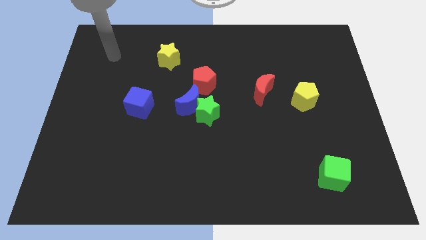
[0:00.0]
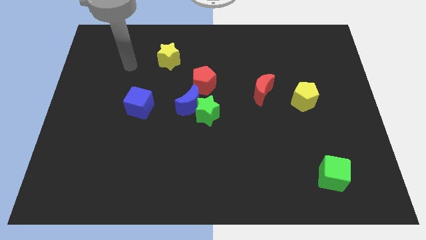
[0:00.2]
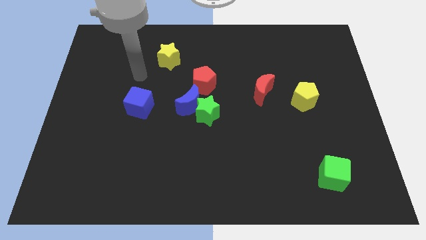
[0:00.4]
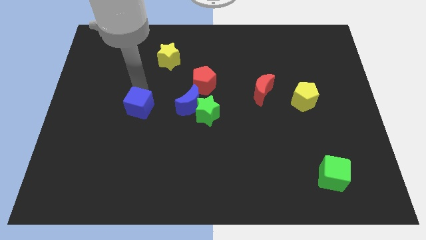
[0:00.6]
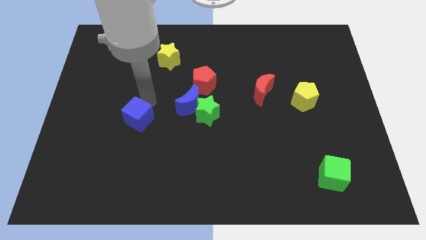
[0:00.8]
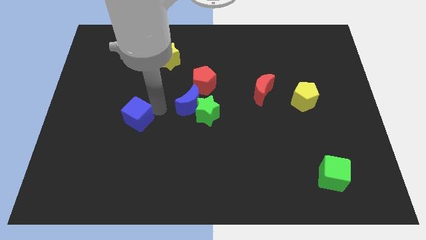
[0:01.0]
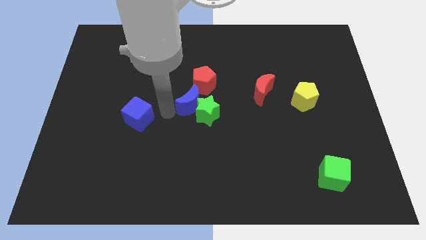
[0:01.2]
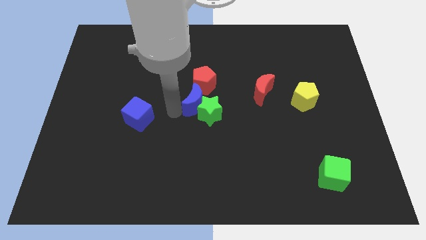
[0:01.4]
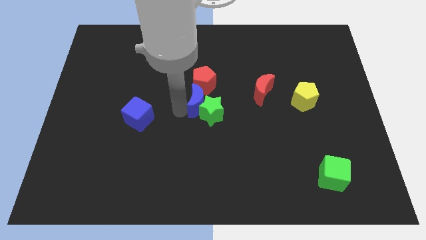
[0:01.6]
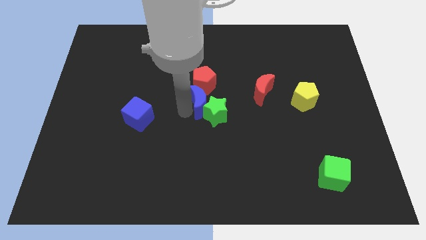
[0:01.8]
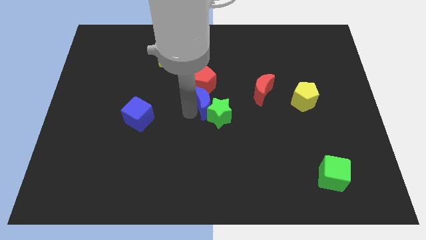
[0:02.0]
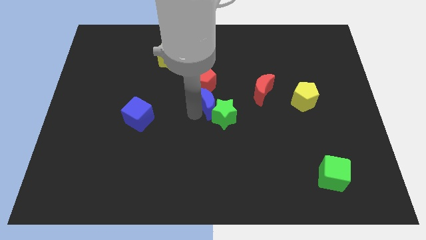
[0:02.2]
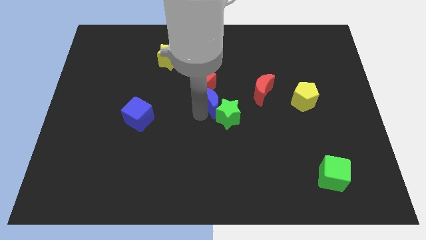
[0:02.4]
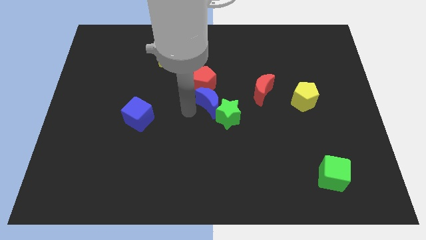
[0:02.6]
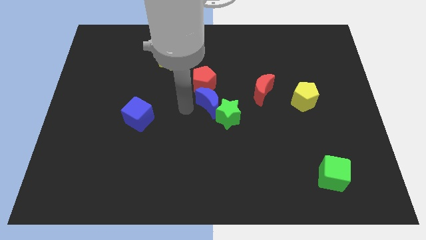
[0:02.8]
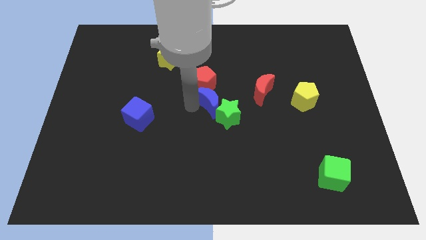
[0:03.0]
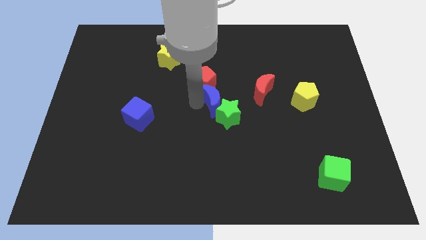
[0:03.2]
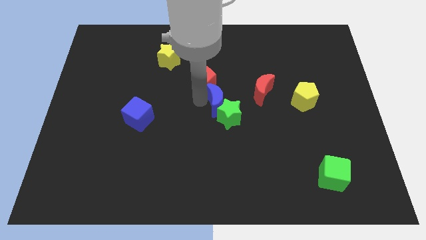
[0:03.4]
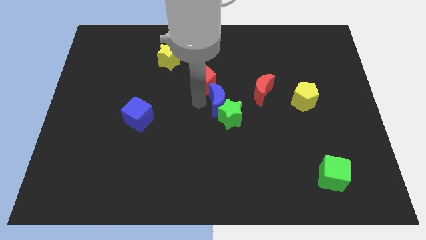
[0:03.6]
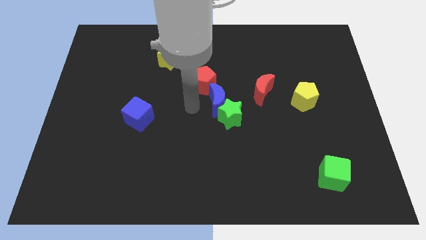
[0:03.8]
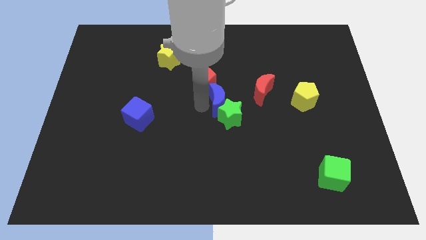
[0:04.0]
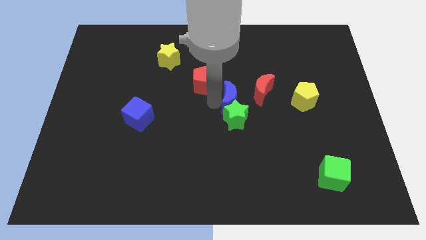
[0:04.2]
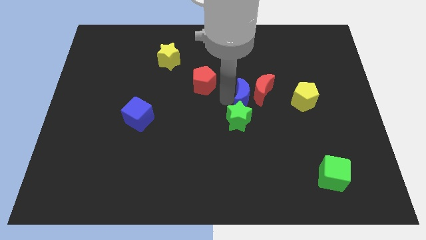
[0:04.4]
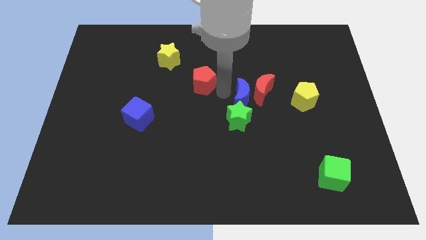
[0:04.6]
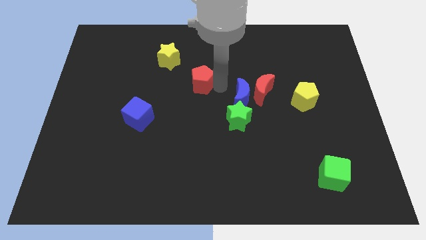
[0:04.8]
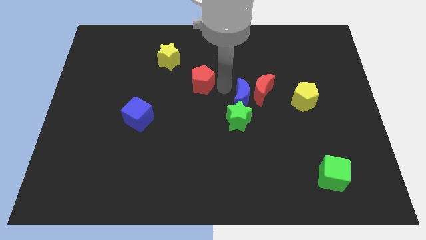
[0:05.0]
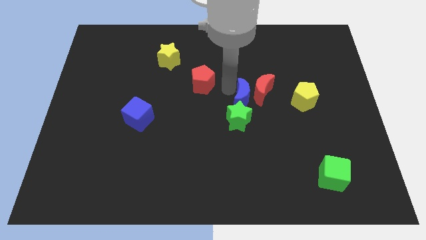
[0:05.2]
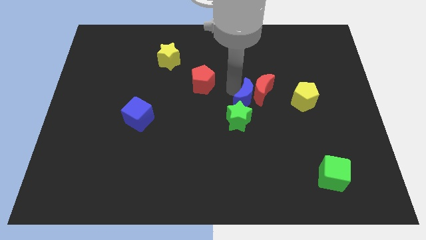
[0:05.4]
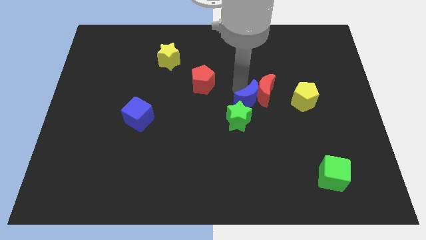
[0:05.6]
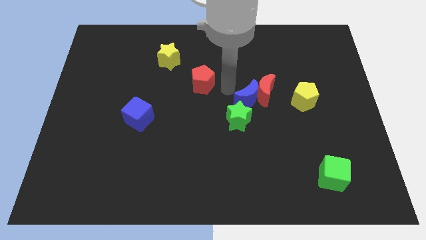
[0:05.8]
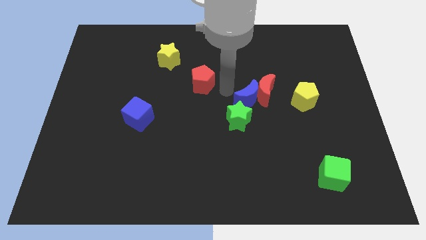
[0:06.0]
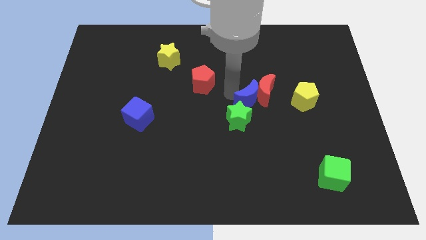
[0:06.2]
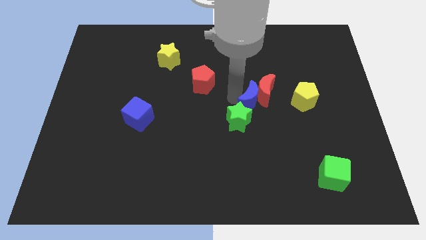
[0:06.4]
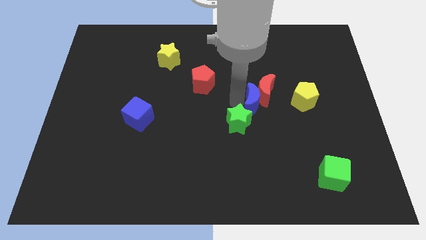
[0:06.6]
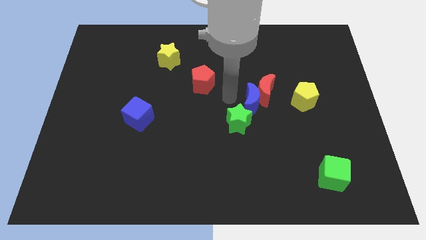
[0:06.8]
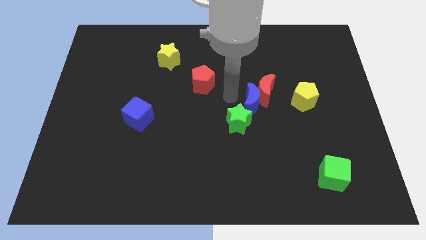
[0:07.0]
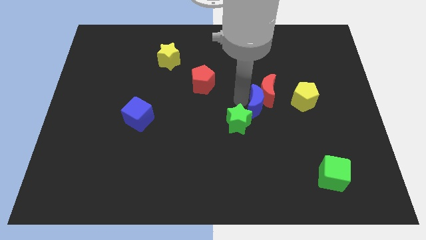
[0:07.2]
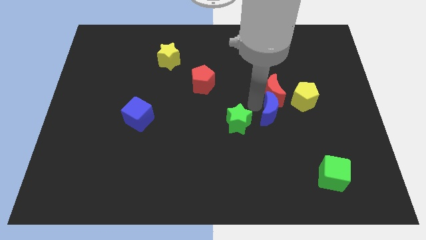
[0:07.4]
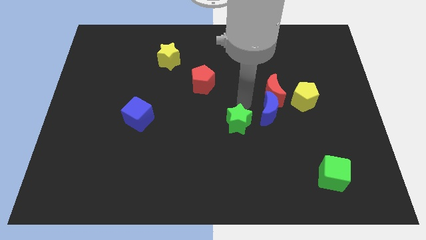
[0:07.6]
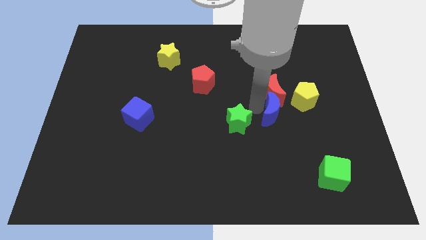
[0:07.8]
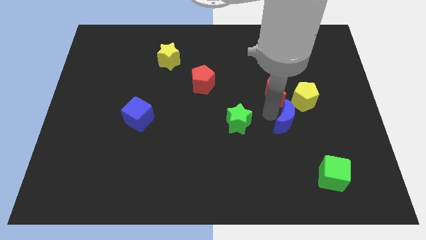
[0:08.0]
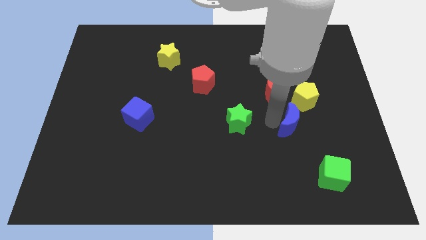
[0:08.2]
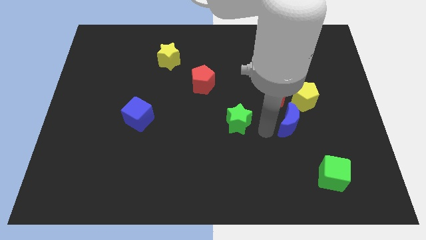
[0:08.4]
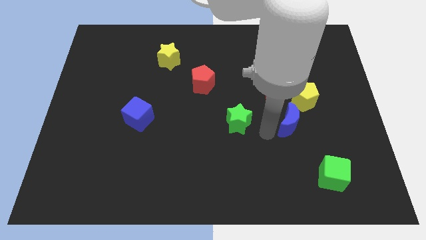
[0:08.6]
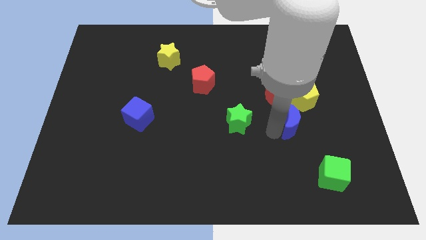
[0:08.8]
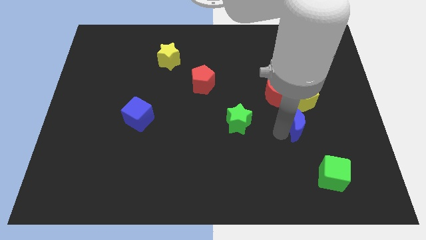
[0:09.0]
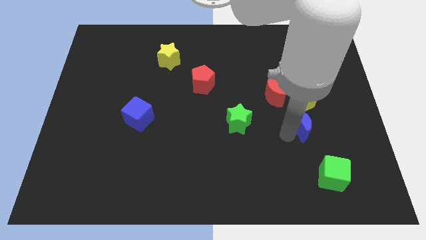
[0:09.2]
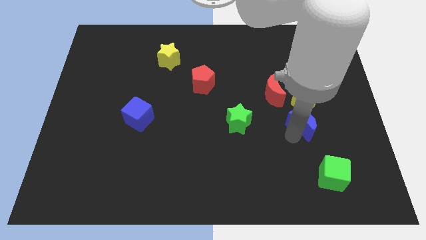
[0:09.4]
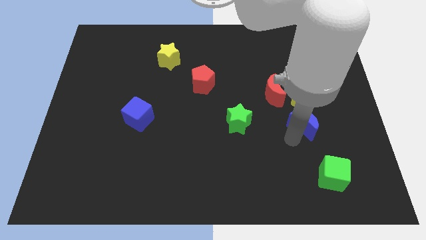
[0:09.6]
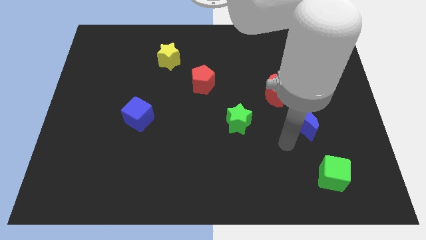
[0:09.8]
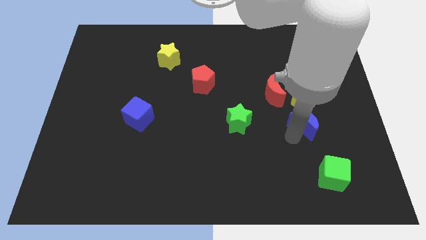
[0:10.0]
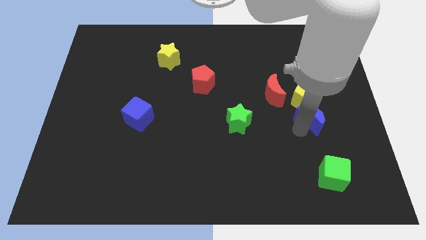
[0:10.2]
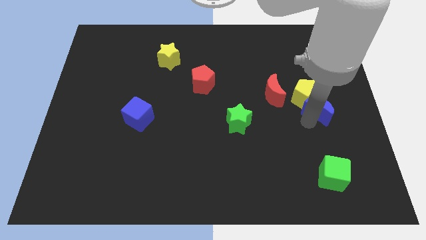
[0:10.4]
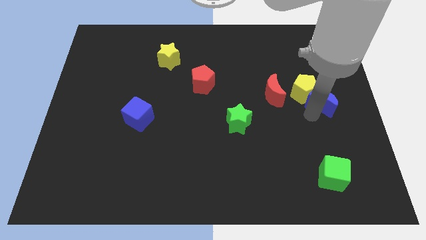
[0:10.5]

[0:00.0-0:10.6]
push the blue moon to the right side

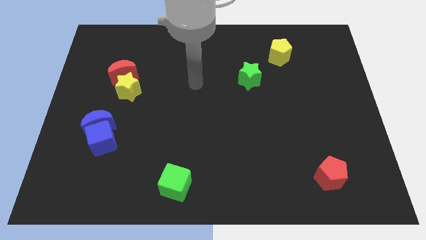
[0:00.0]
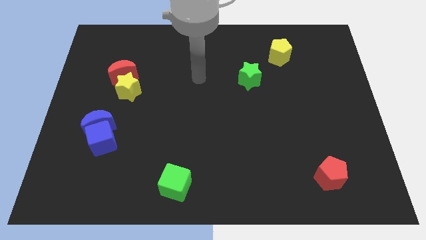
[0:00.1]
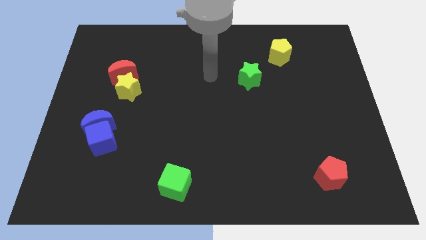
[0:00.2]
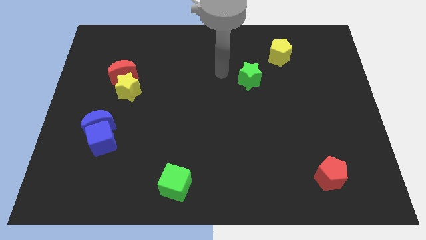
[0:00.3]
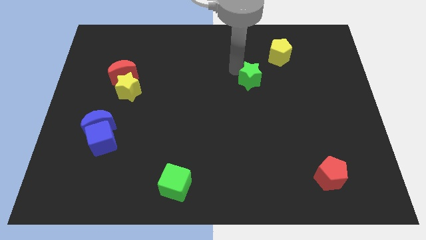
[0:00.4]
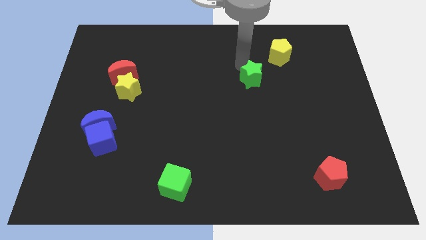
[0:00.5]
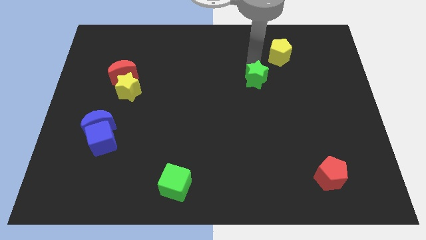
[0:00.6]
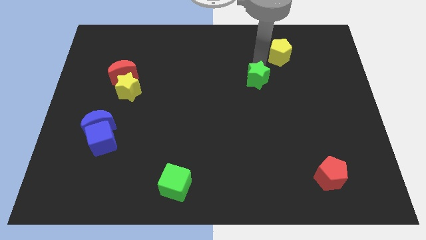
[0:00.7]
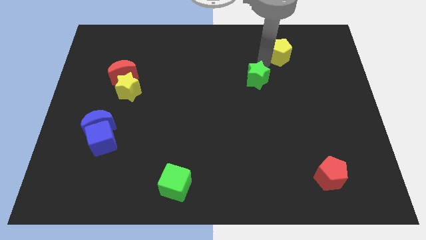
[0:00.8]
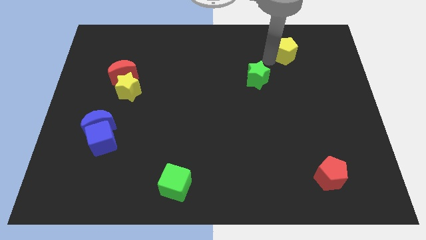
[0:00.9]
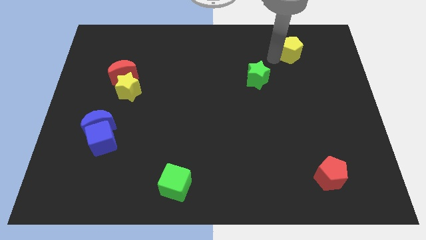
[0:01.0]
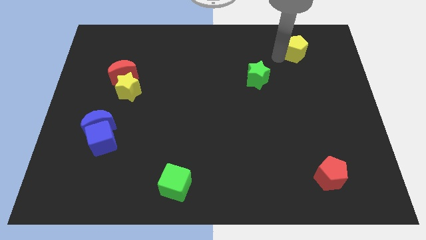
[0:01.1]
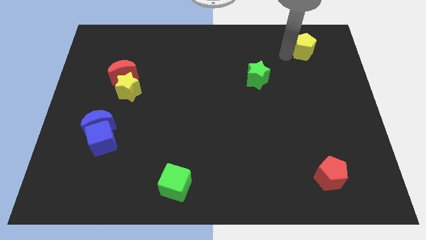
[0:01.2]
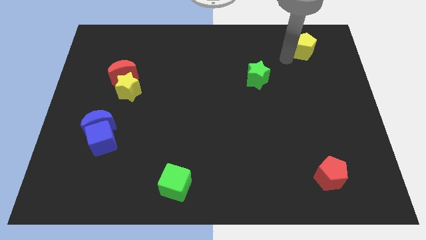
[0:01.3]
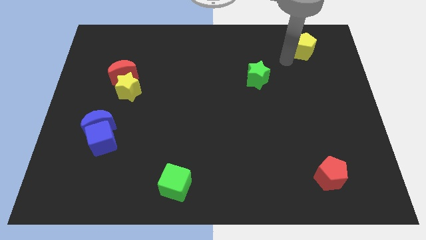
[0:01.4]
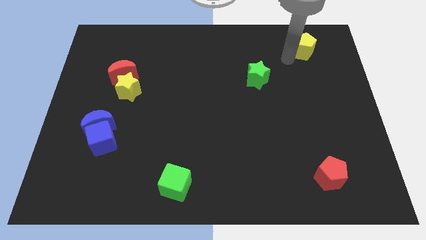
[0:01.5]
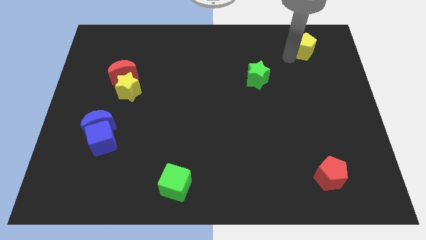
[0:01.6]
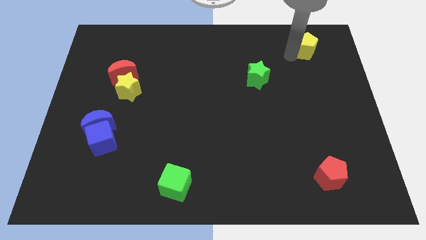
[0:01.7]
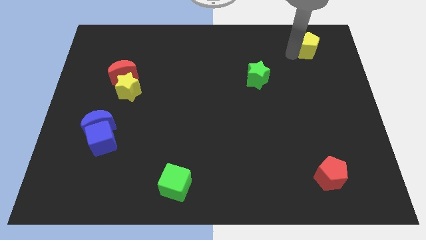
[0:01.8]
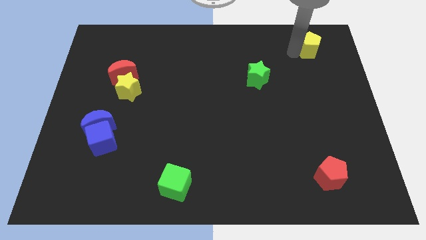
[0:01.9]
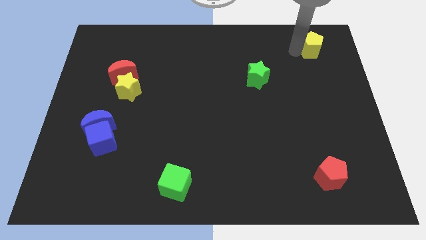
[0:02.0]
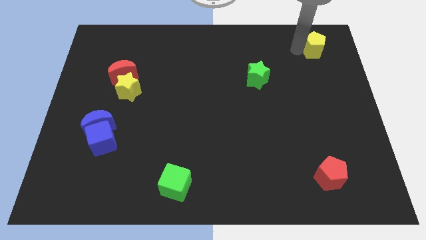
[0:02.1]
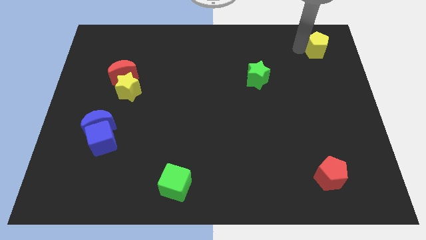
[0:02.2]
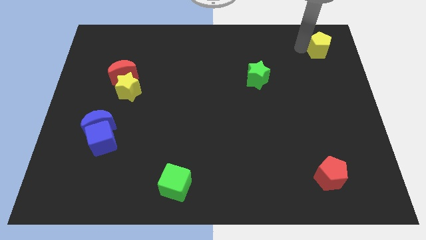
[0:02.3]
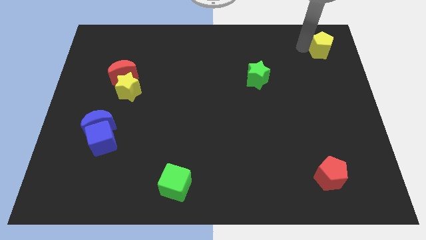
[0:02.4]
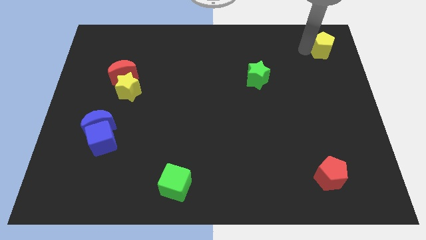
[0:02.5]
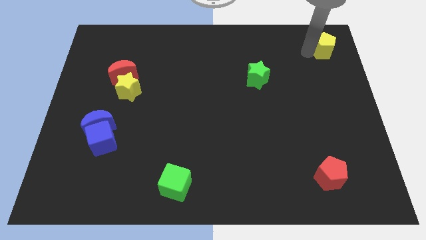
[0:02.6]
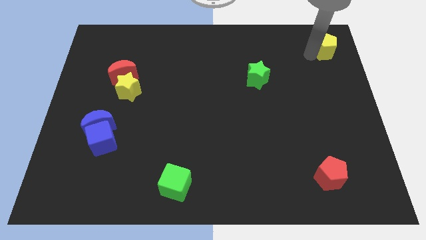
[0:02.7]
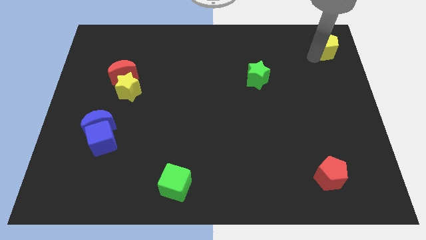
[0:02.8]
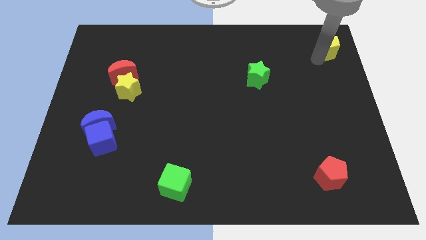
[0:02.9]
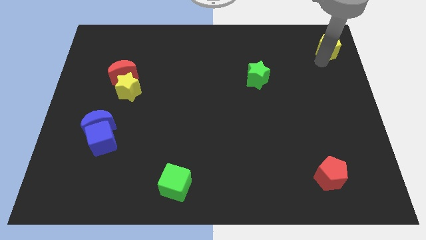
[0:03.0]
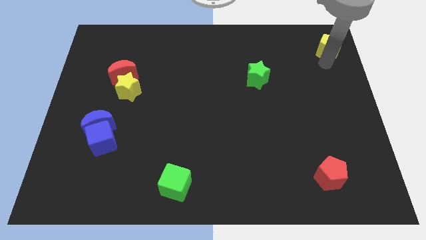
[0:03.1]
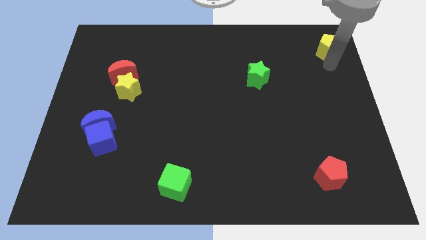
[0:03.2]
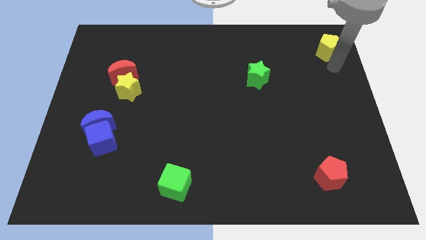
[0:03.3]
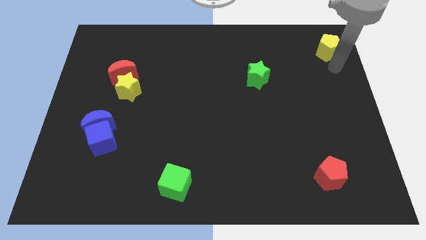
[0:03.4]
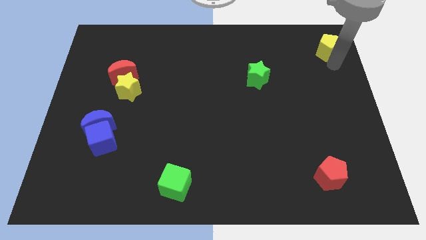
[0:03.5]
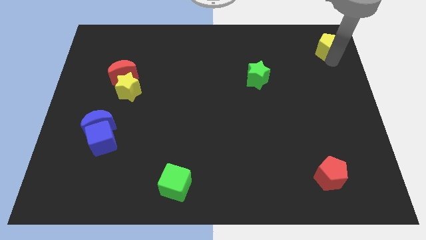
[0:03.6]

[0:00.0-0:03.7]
put the yellow pentagon to the top right of the board
